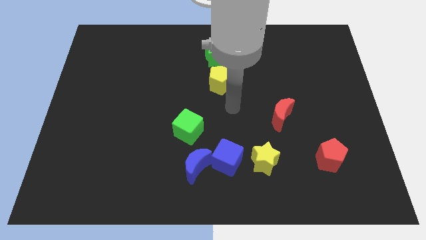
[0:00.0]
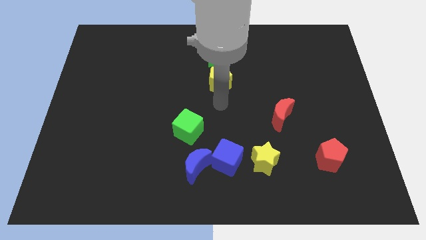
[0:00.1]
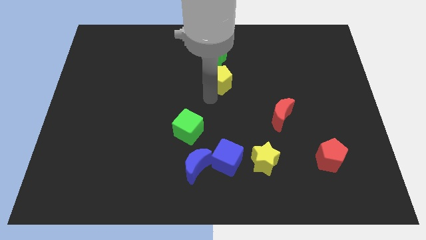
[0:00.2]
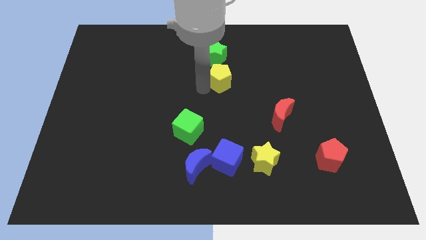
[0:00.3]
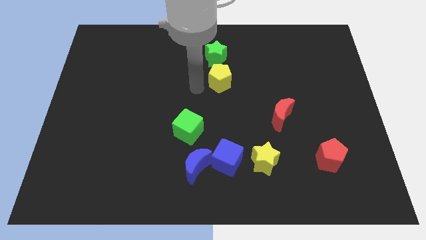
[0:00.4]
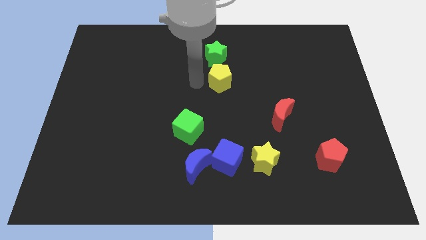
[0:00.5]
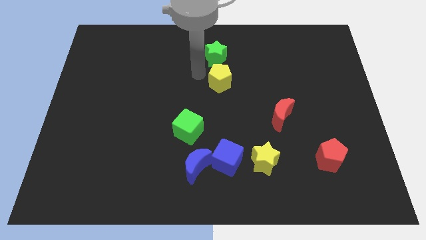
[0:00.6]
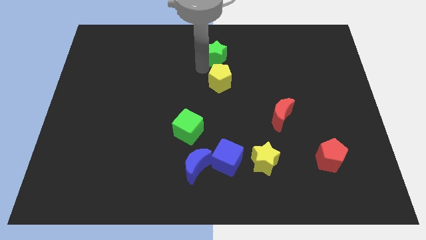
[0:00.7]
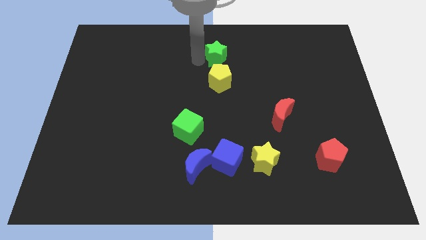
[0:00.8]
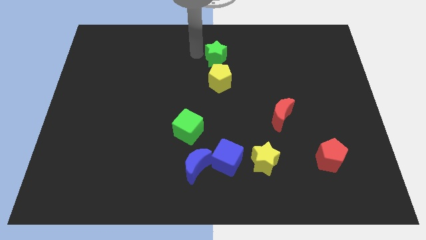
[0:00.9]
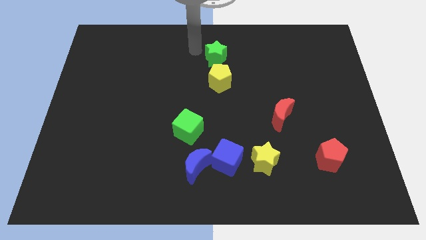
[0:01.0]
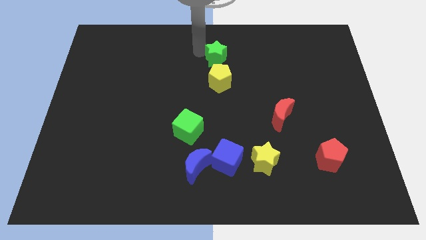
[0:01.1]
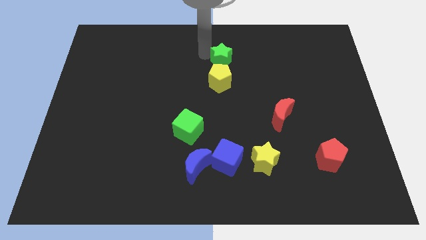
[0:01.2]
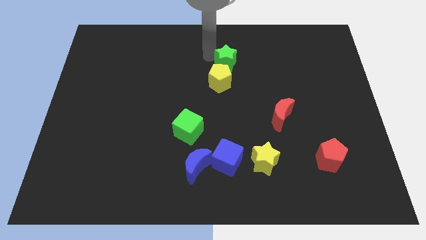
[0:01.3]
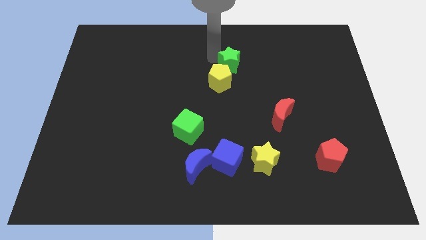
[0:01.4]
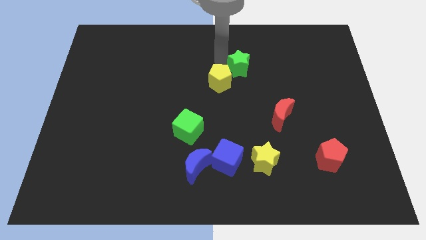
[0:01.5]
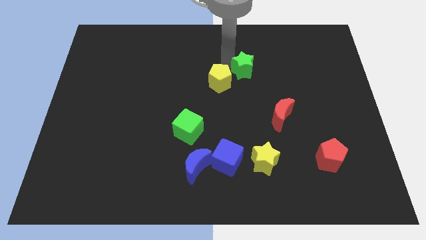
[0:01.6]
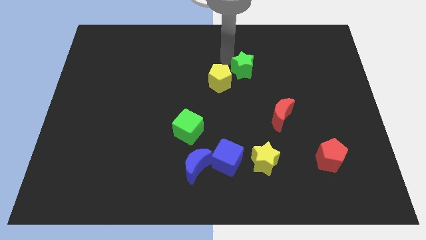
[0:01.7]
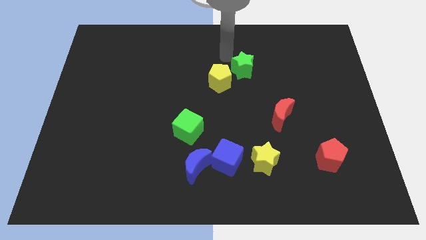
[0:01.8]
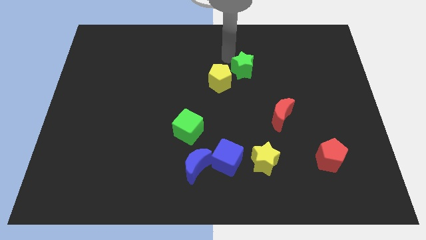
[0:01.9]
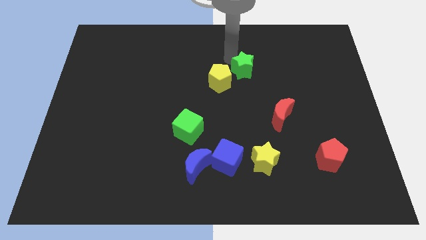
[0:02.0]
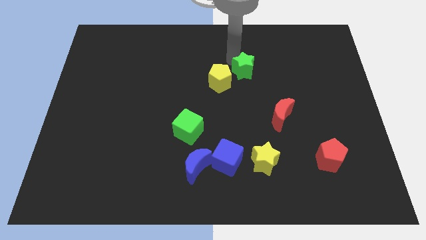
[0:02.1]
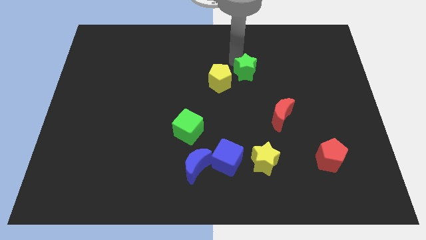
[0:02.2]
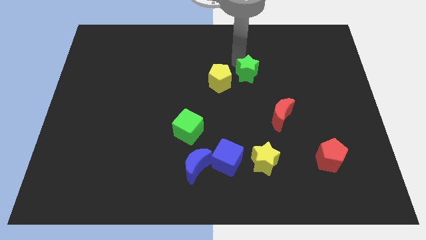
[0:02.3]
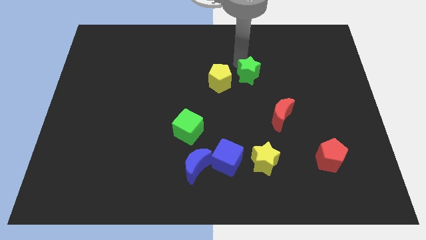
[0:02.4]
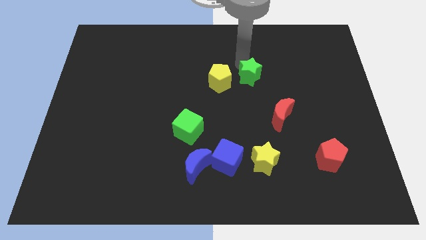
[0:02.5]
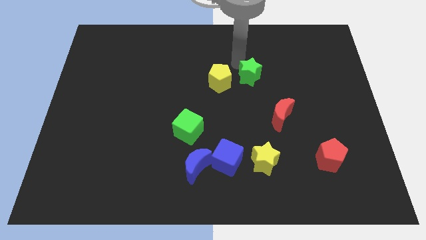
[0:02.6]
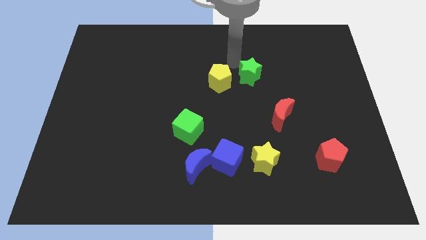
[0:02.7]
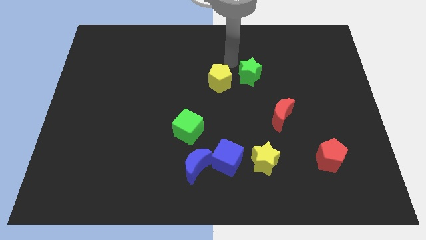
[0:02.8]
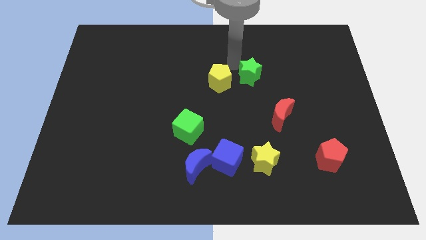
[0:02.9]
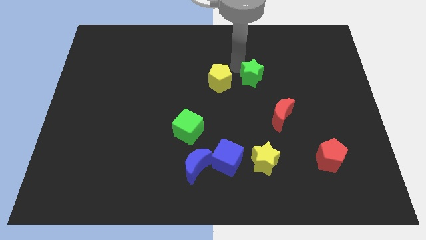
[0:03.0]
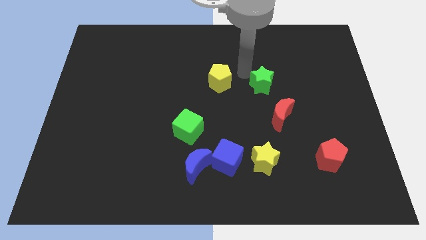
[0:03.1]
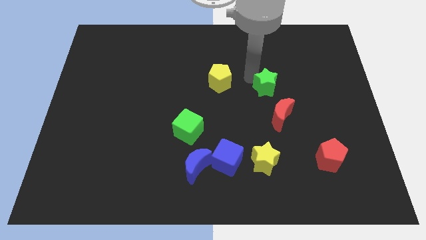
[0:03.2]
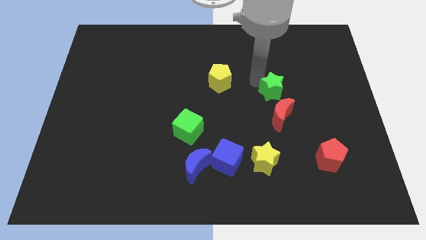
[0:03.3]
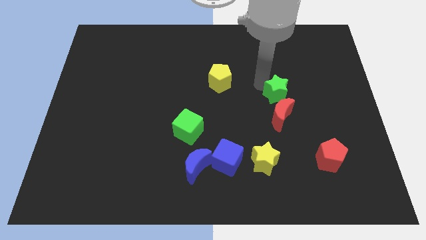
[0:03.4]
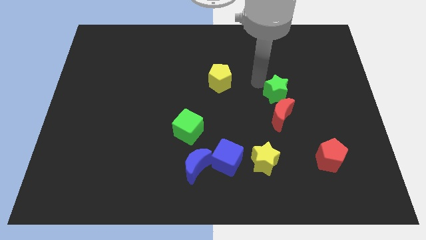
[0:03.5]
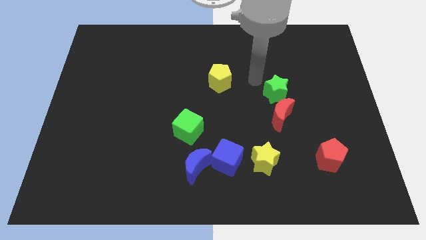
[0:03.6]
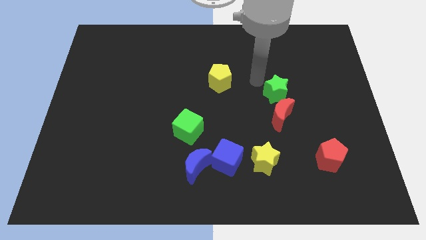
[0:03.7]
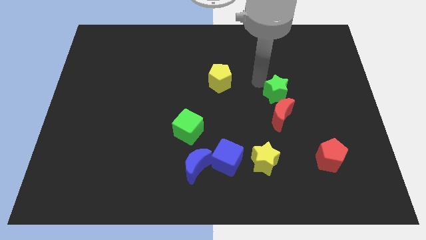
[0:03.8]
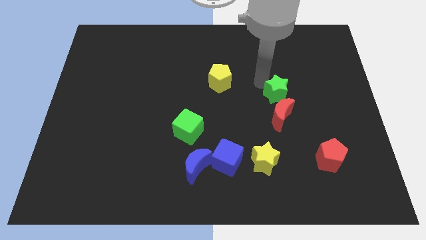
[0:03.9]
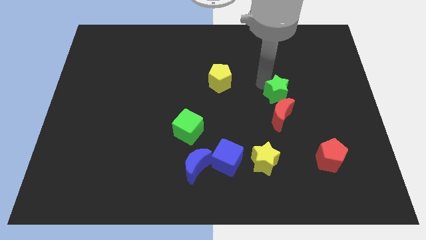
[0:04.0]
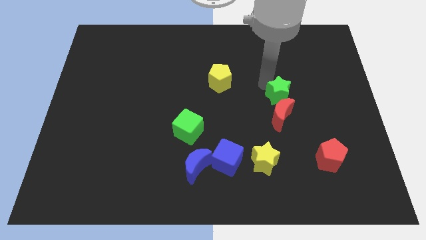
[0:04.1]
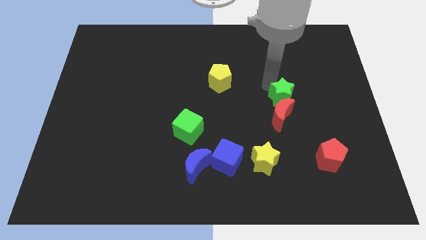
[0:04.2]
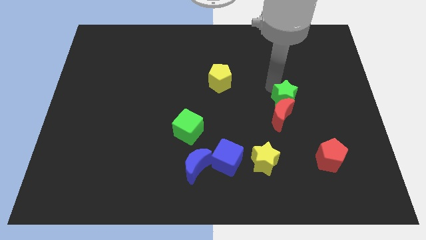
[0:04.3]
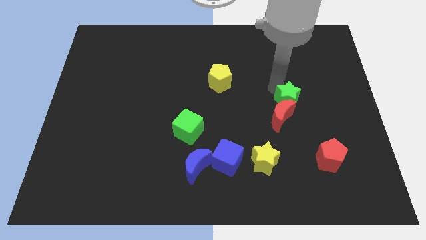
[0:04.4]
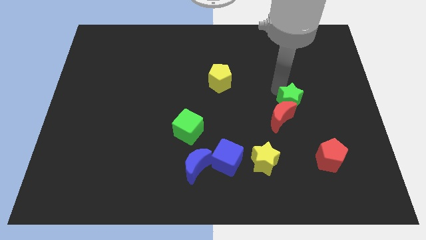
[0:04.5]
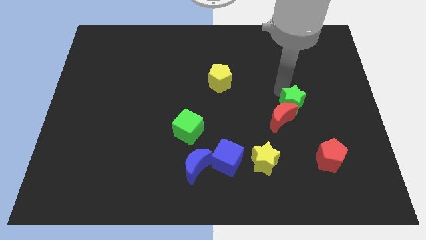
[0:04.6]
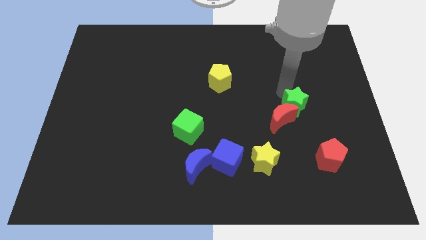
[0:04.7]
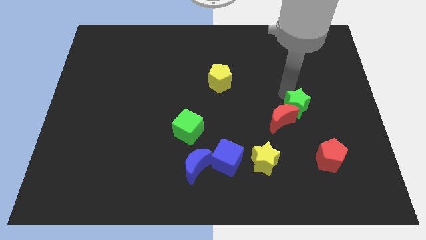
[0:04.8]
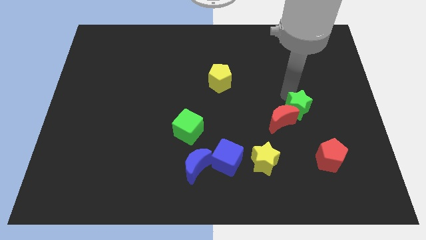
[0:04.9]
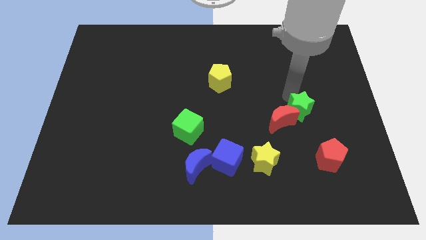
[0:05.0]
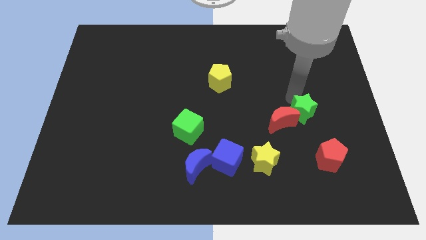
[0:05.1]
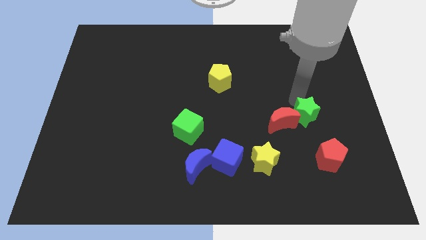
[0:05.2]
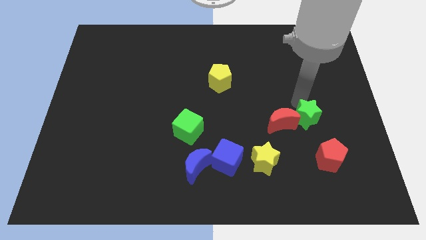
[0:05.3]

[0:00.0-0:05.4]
put the green star diagonally down and to the right of the red moon

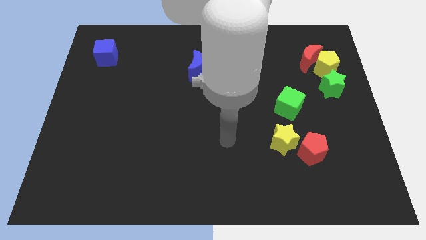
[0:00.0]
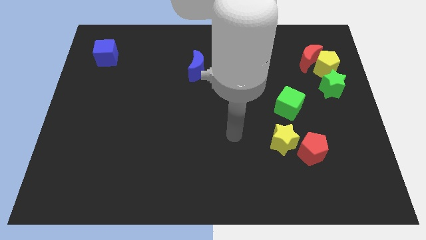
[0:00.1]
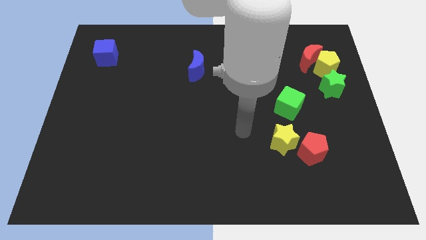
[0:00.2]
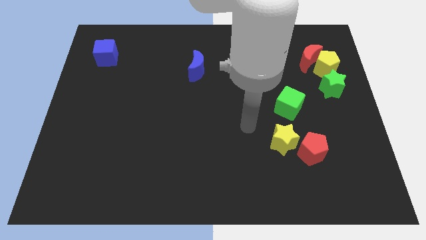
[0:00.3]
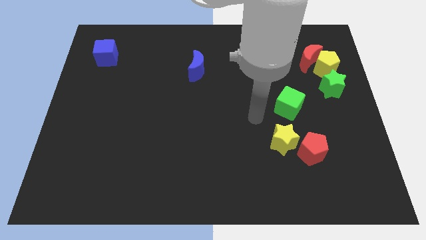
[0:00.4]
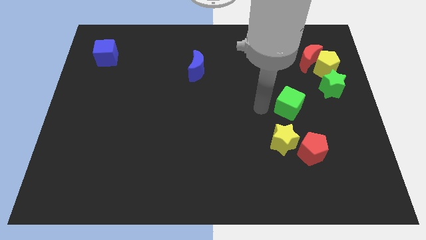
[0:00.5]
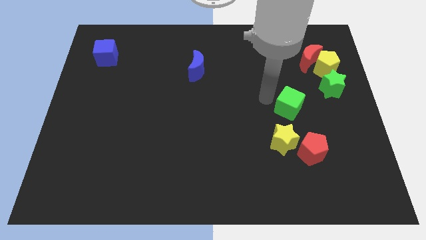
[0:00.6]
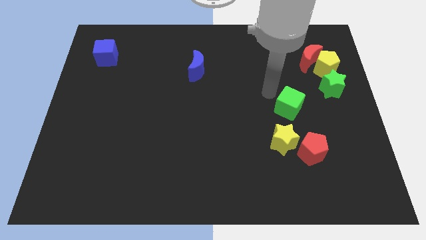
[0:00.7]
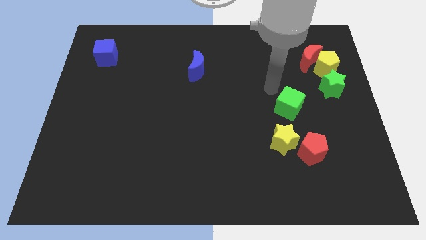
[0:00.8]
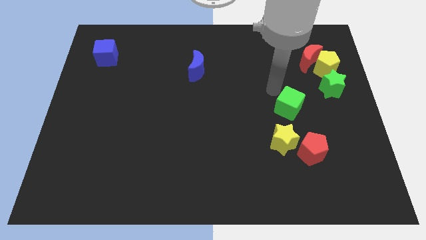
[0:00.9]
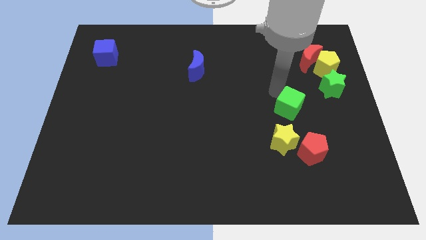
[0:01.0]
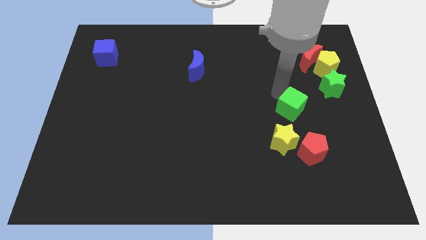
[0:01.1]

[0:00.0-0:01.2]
move the green cube to the top right side of the yellow star
